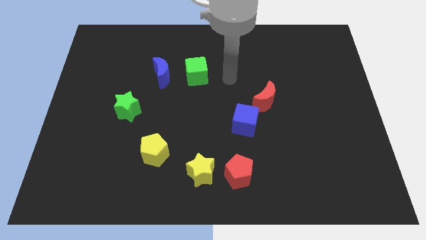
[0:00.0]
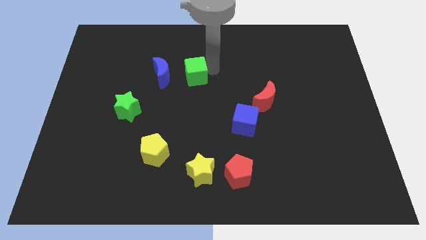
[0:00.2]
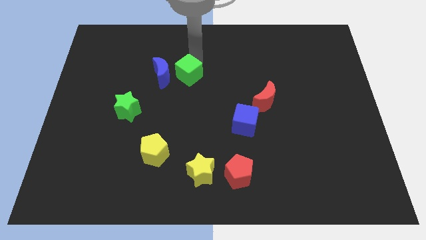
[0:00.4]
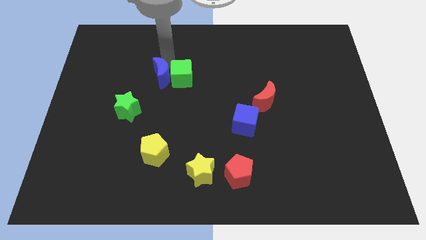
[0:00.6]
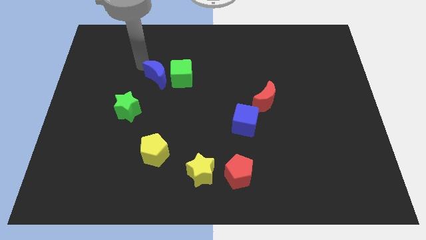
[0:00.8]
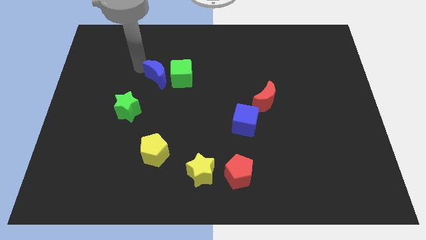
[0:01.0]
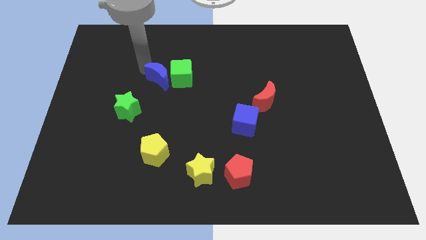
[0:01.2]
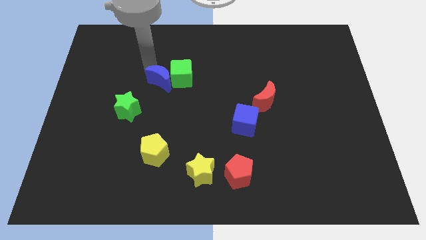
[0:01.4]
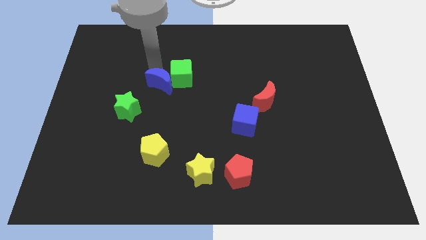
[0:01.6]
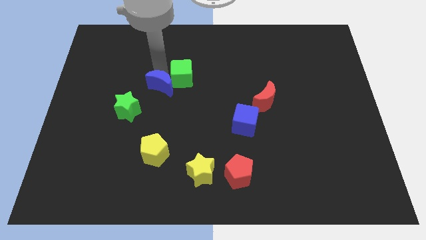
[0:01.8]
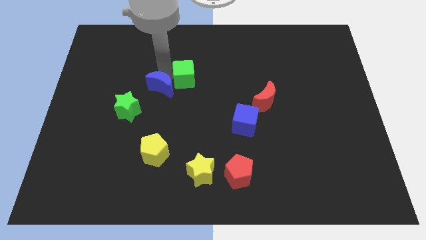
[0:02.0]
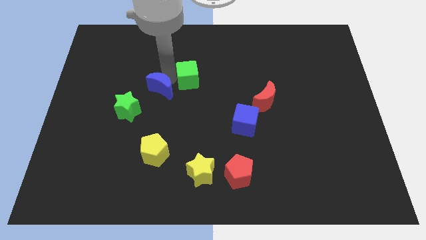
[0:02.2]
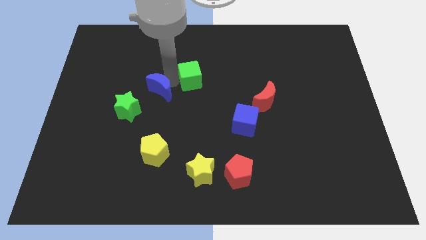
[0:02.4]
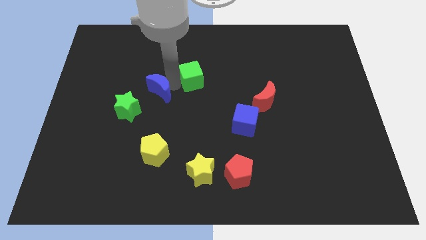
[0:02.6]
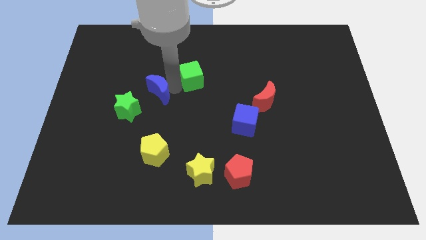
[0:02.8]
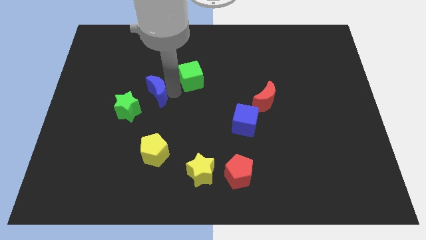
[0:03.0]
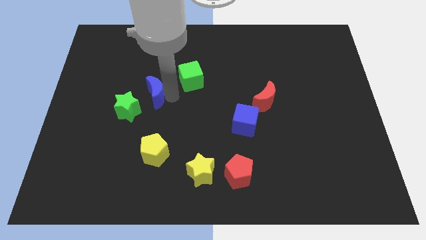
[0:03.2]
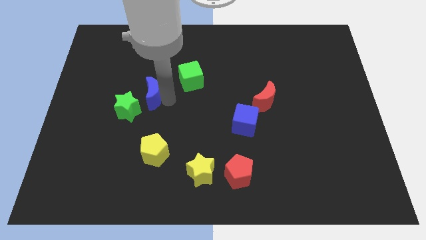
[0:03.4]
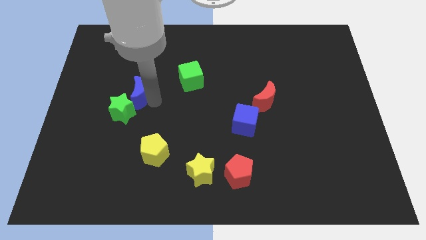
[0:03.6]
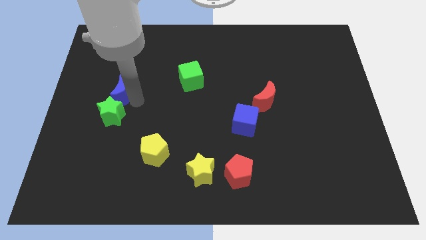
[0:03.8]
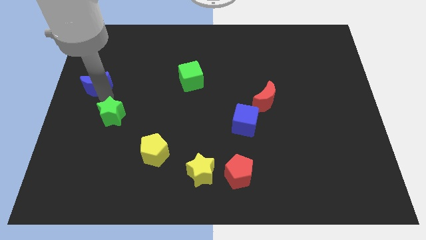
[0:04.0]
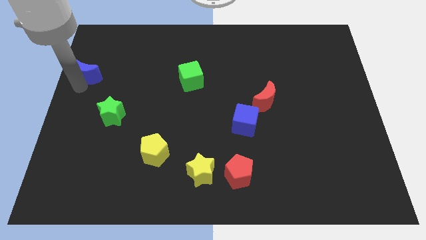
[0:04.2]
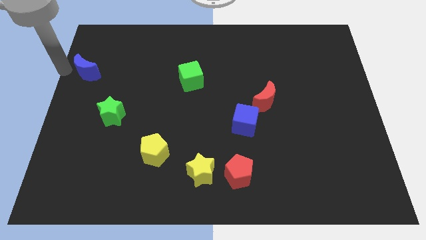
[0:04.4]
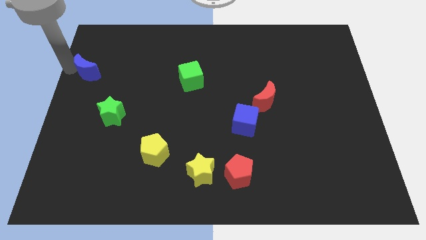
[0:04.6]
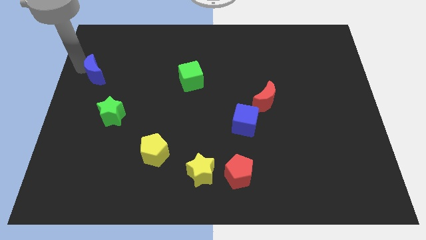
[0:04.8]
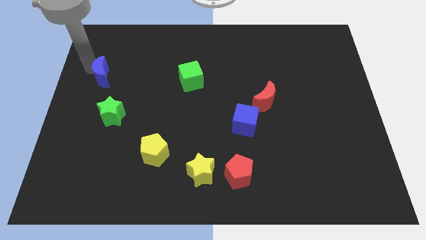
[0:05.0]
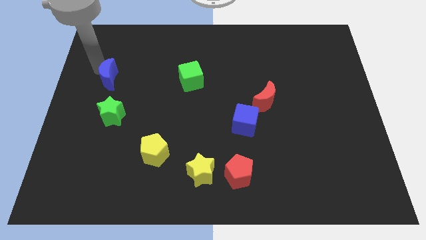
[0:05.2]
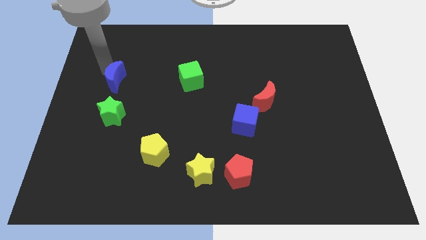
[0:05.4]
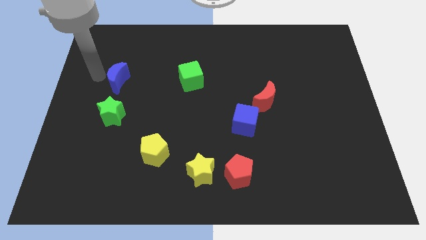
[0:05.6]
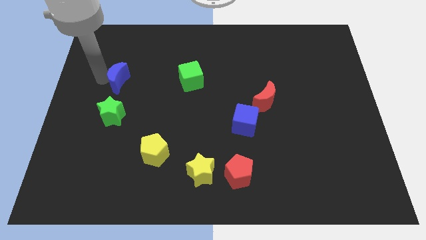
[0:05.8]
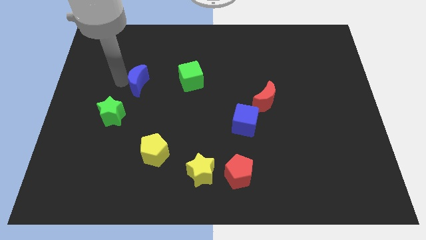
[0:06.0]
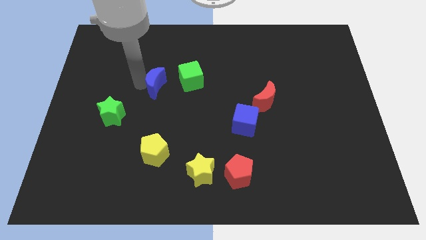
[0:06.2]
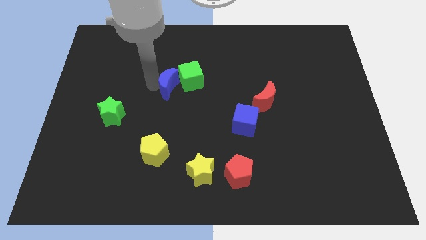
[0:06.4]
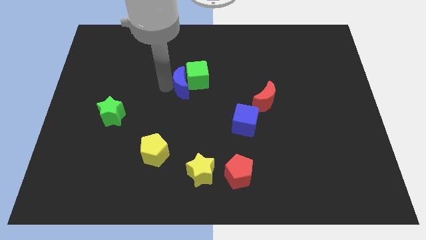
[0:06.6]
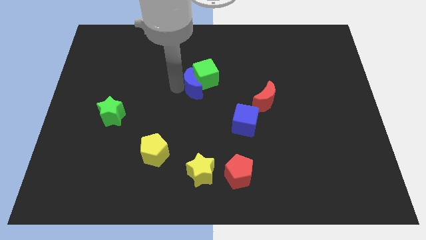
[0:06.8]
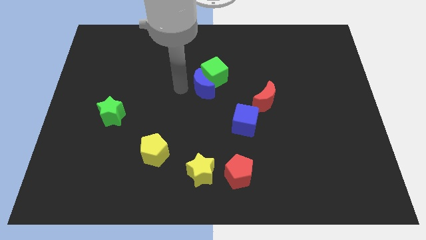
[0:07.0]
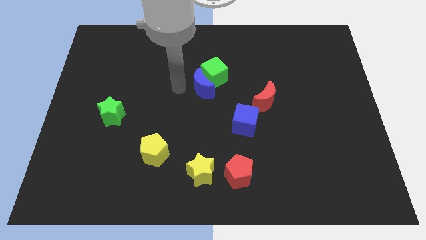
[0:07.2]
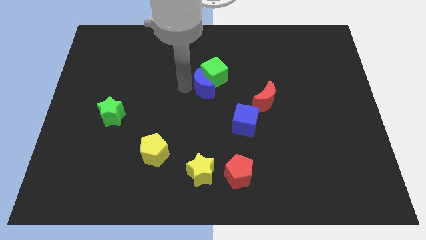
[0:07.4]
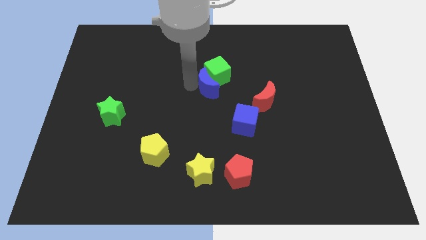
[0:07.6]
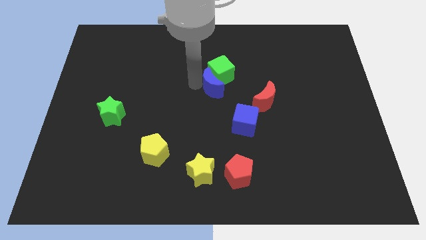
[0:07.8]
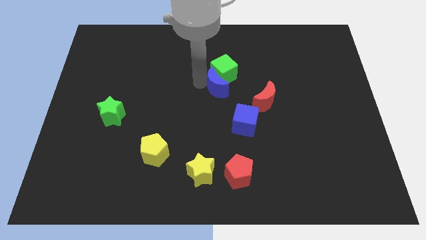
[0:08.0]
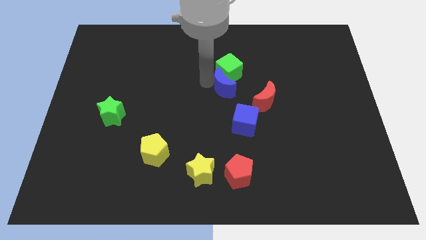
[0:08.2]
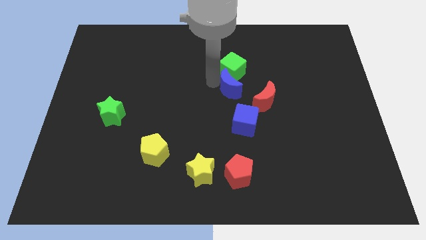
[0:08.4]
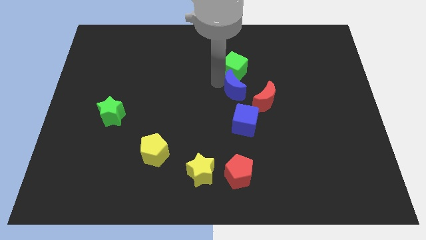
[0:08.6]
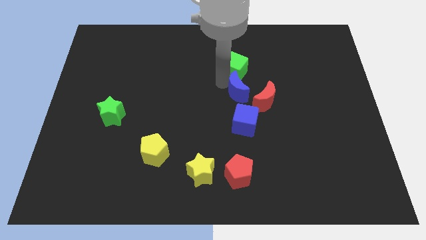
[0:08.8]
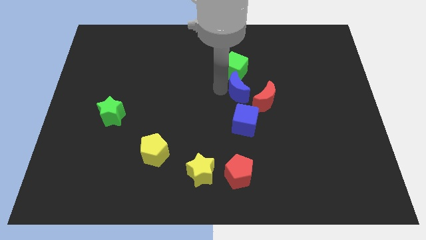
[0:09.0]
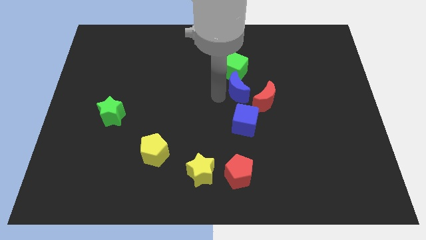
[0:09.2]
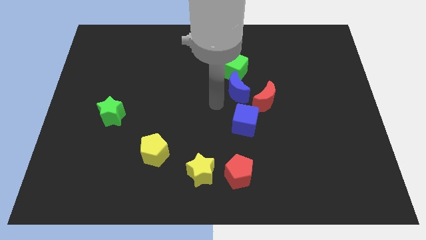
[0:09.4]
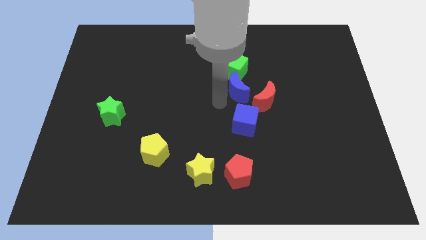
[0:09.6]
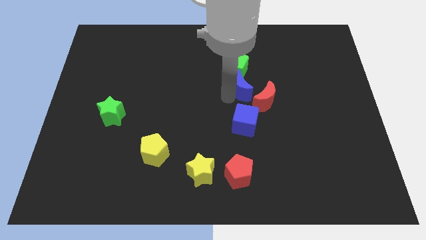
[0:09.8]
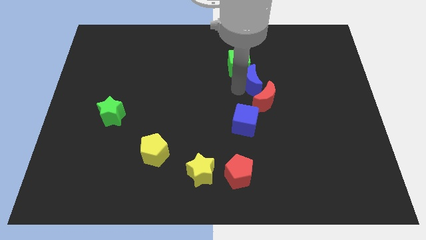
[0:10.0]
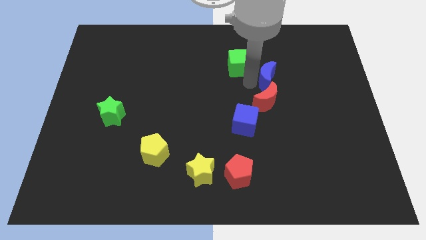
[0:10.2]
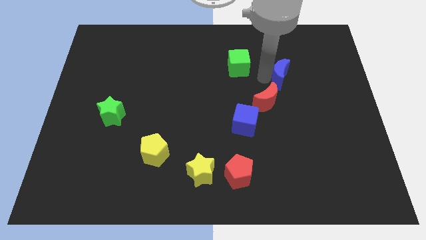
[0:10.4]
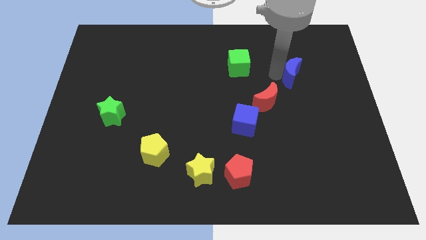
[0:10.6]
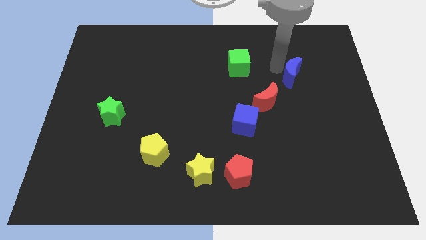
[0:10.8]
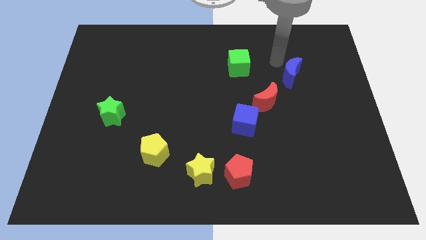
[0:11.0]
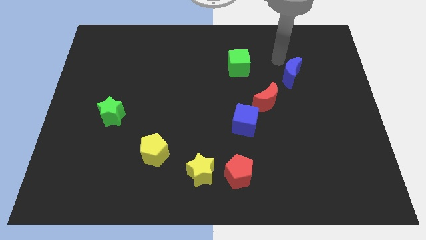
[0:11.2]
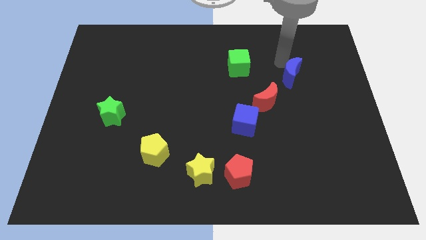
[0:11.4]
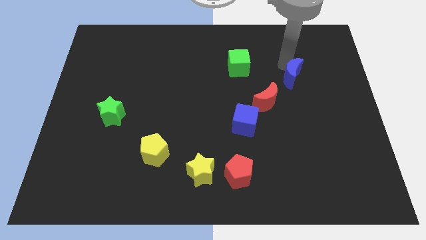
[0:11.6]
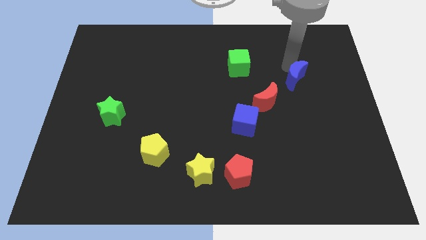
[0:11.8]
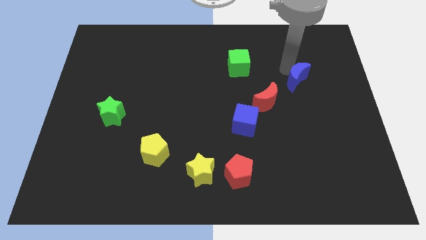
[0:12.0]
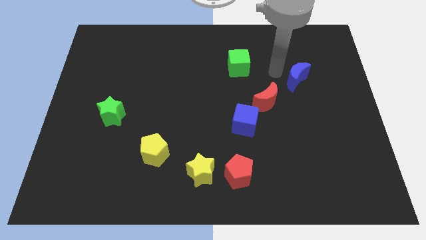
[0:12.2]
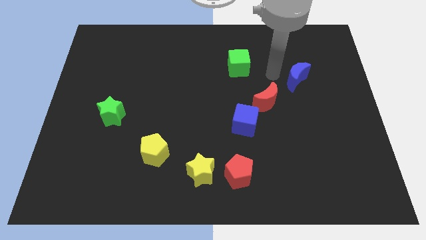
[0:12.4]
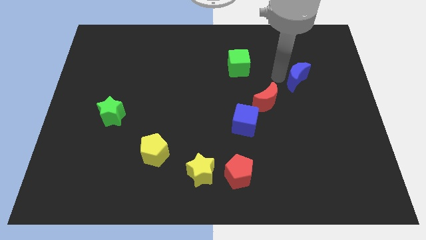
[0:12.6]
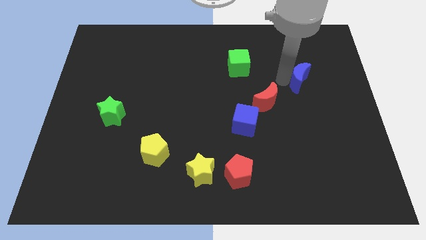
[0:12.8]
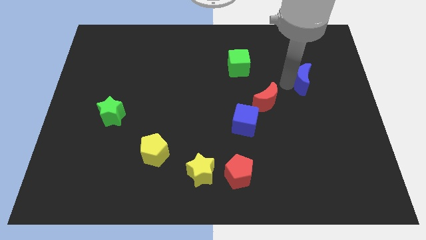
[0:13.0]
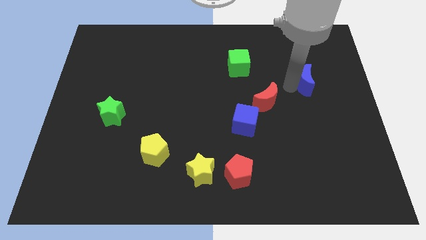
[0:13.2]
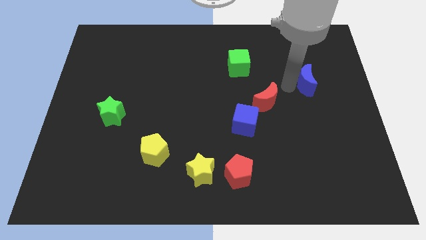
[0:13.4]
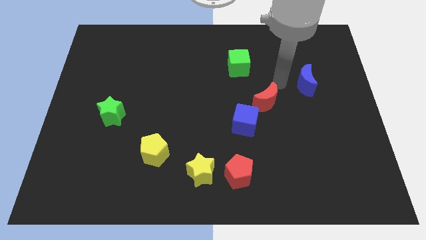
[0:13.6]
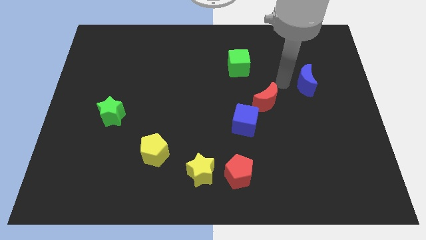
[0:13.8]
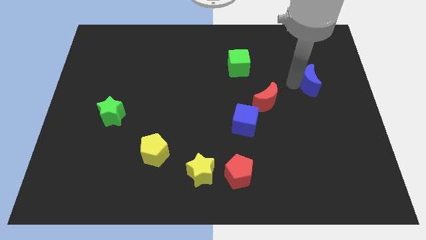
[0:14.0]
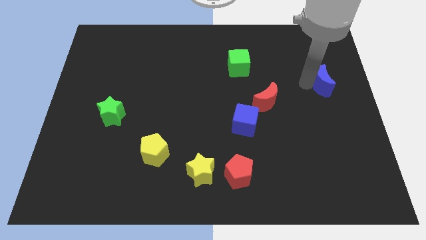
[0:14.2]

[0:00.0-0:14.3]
slide the blue moon to the right side

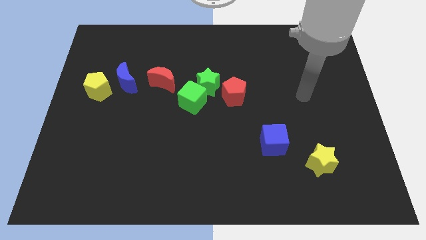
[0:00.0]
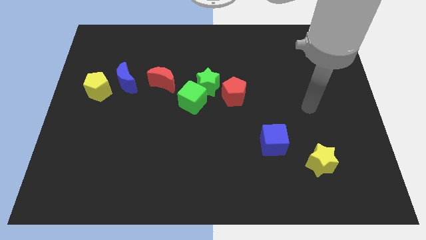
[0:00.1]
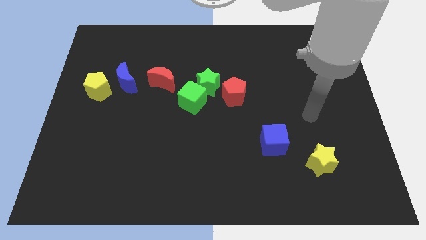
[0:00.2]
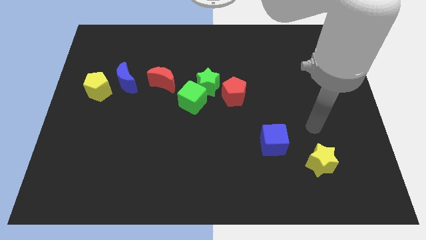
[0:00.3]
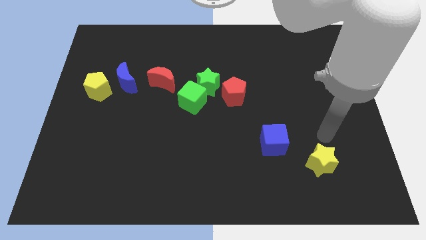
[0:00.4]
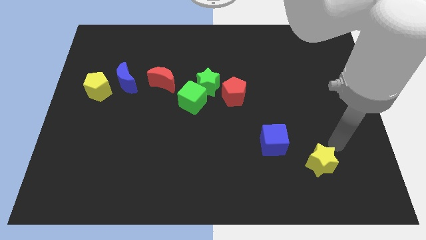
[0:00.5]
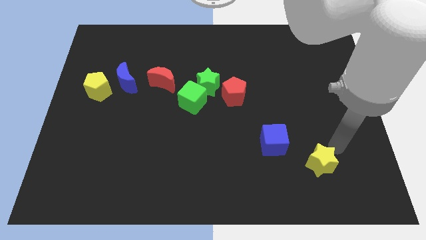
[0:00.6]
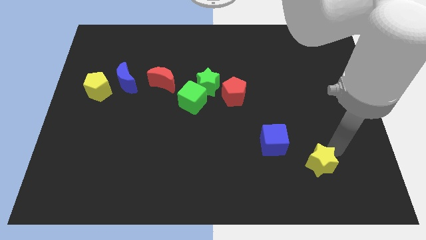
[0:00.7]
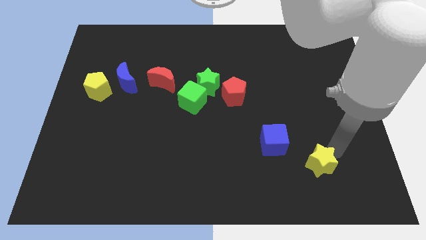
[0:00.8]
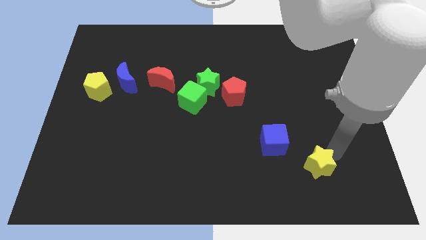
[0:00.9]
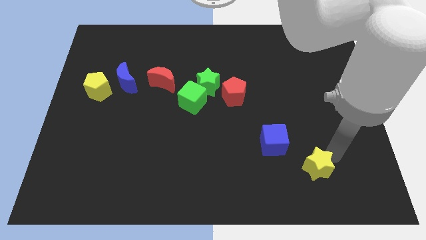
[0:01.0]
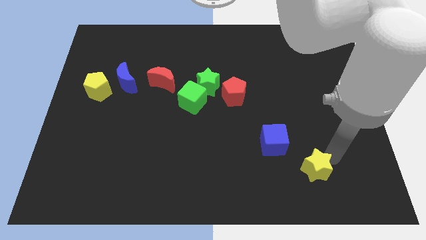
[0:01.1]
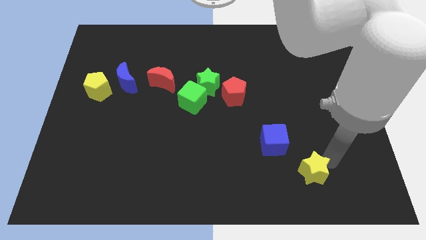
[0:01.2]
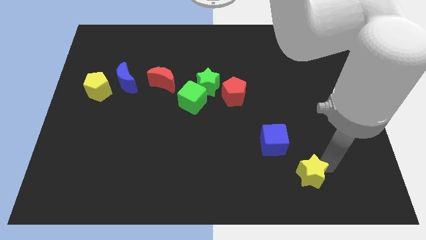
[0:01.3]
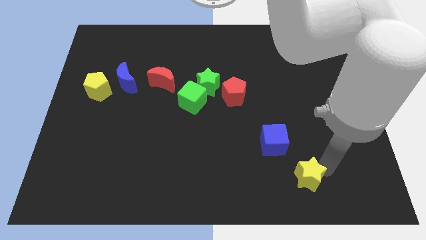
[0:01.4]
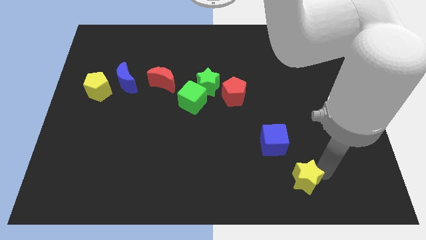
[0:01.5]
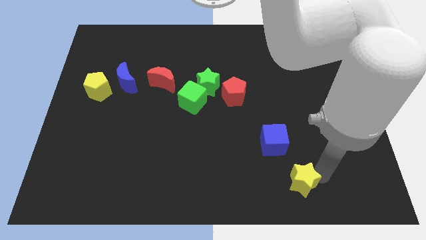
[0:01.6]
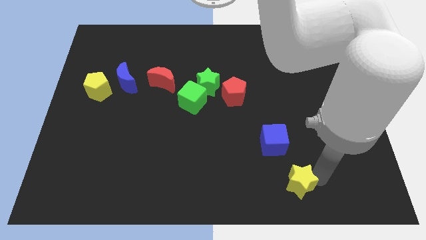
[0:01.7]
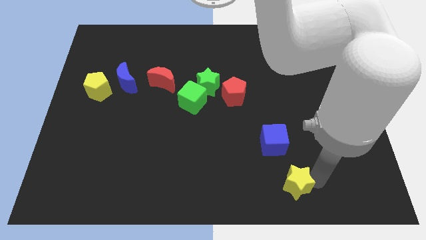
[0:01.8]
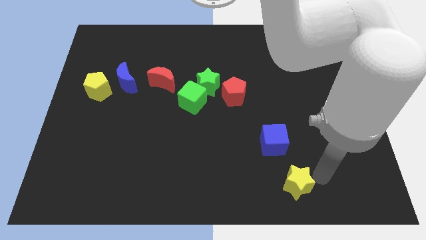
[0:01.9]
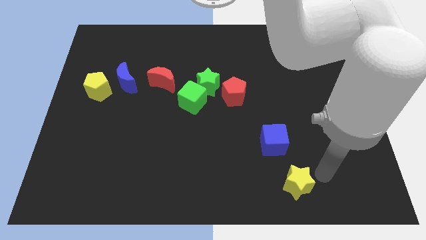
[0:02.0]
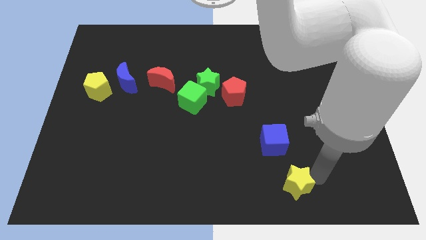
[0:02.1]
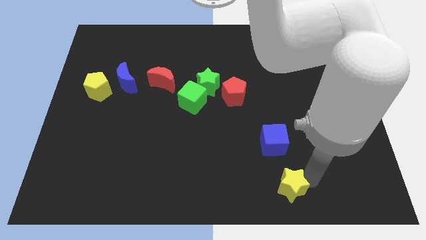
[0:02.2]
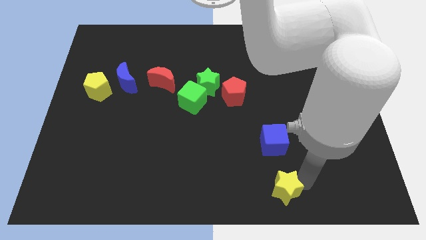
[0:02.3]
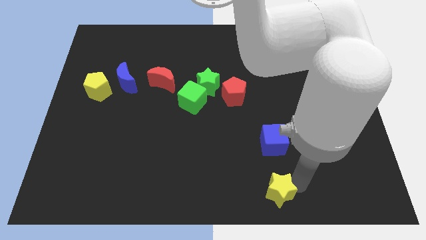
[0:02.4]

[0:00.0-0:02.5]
move the yellow star to the bottom side
